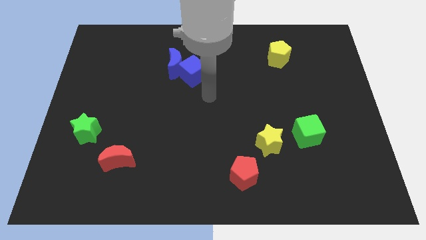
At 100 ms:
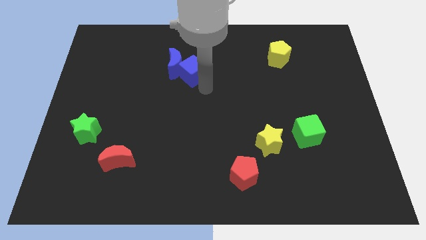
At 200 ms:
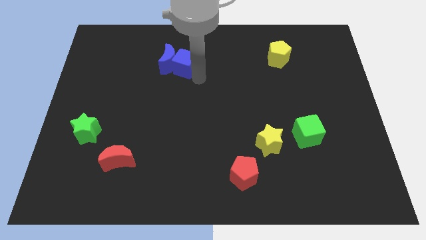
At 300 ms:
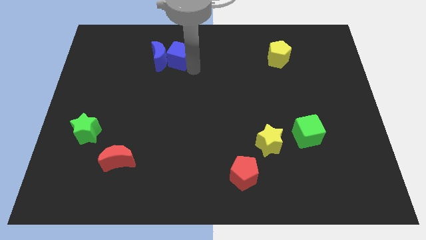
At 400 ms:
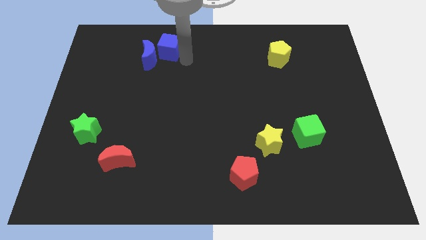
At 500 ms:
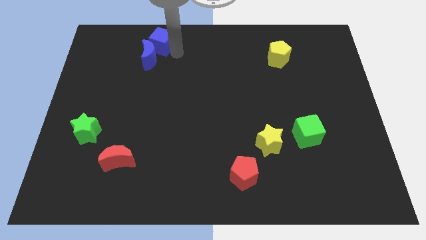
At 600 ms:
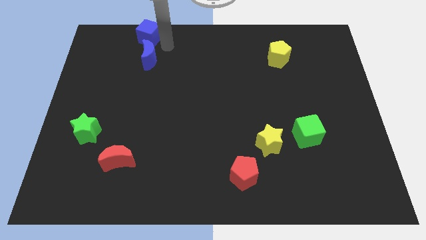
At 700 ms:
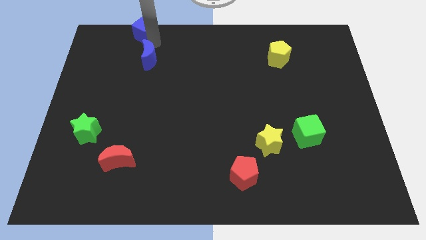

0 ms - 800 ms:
pull the blue moon apart from the blue cube

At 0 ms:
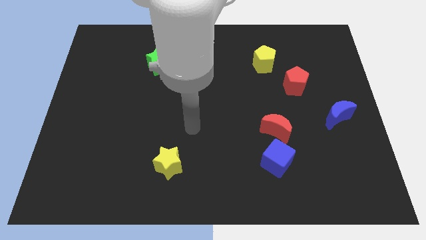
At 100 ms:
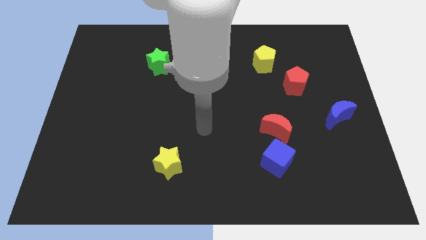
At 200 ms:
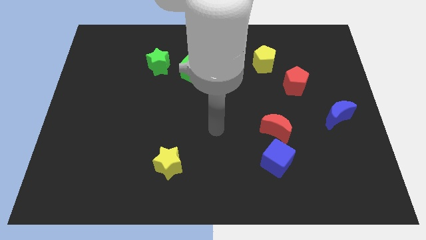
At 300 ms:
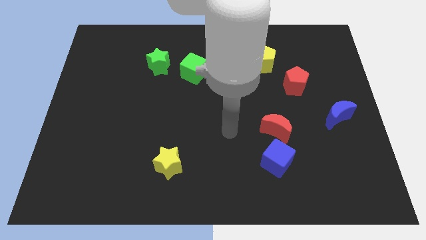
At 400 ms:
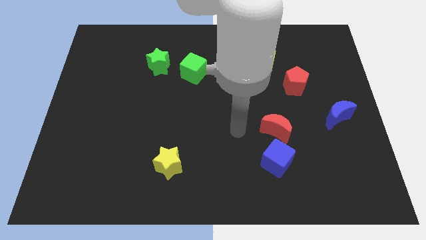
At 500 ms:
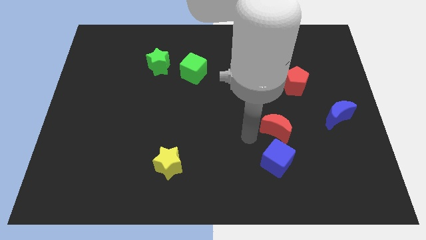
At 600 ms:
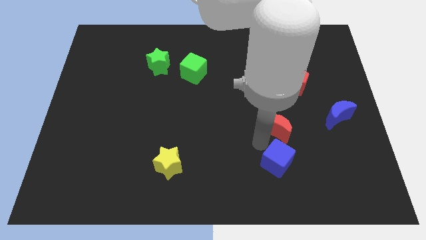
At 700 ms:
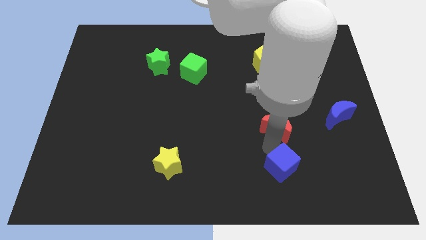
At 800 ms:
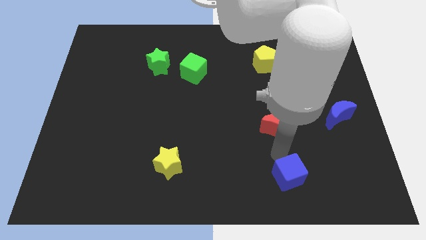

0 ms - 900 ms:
move the red moon away from the blue cube

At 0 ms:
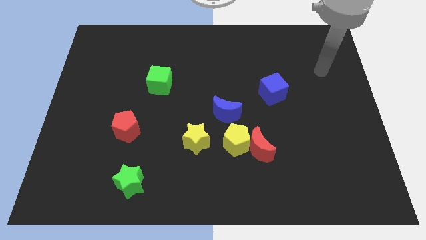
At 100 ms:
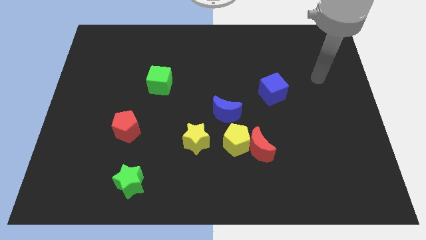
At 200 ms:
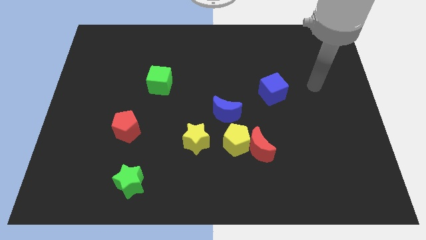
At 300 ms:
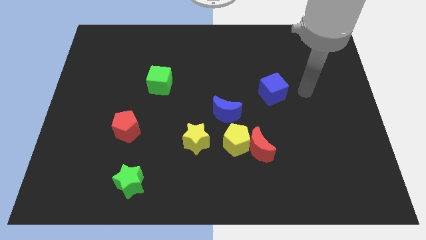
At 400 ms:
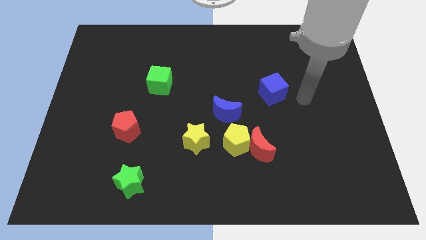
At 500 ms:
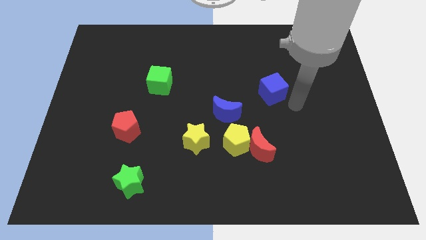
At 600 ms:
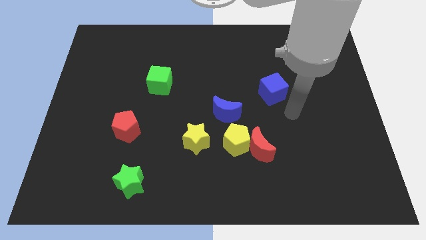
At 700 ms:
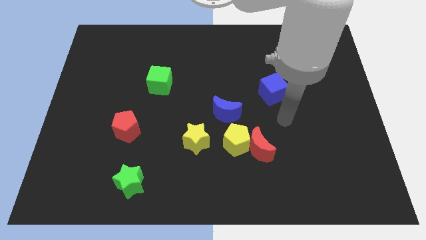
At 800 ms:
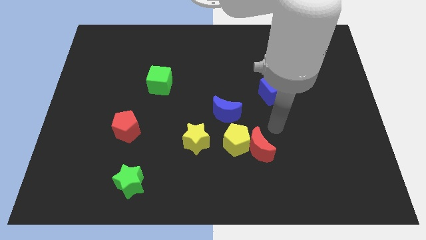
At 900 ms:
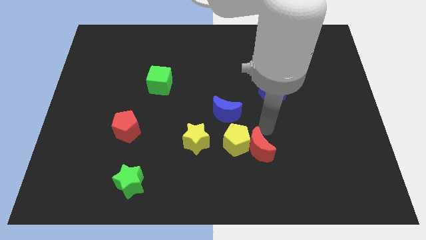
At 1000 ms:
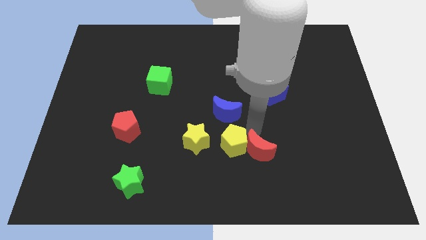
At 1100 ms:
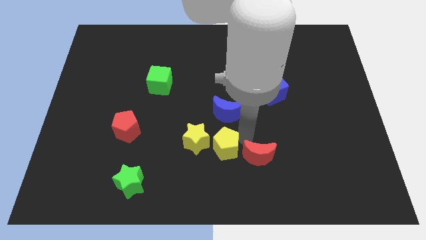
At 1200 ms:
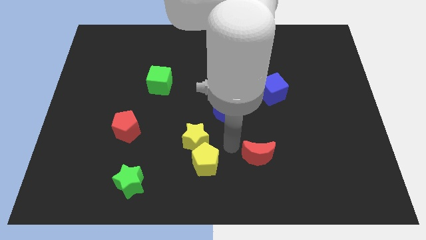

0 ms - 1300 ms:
pull the red moon apart from the yellow pentagon

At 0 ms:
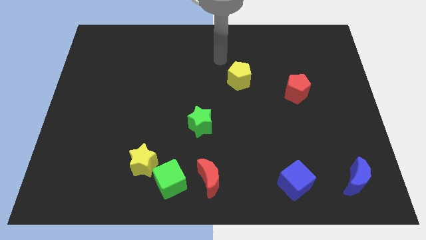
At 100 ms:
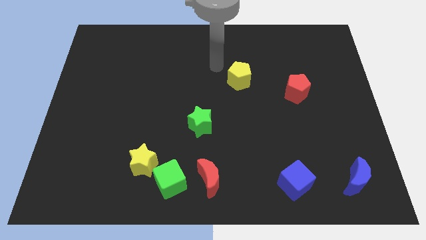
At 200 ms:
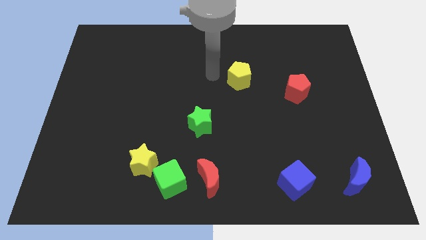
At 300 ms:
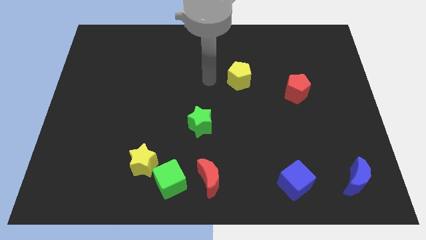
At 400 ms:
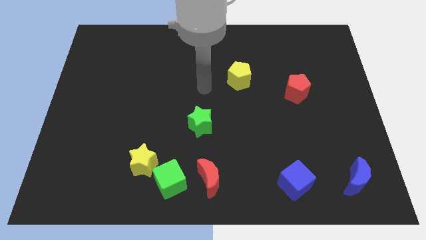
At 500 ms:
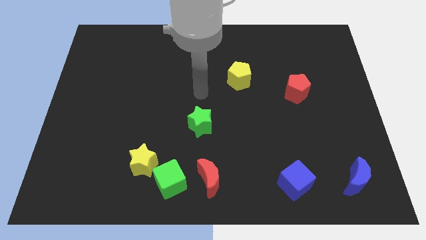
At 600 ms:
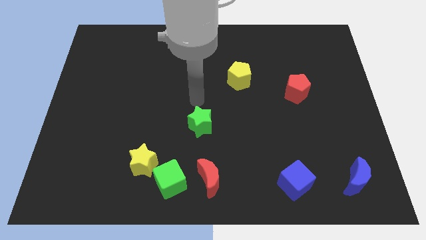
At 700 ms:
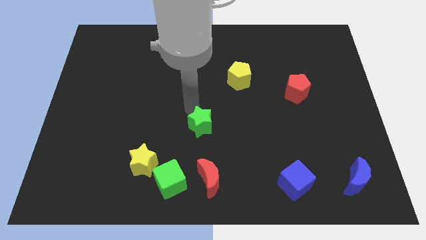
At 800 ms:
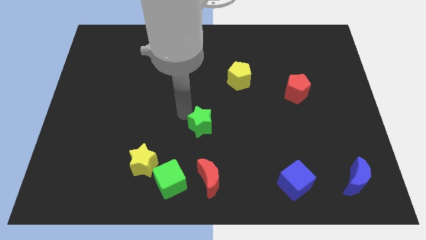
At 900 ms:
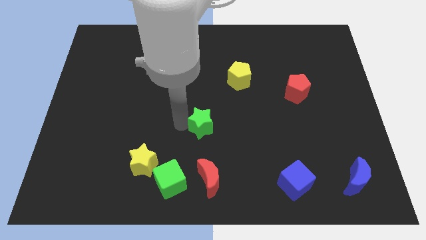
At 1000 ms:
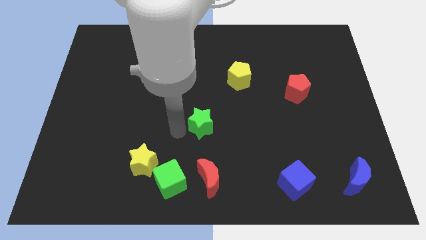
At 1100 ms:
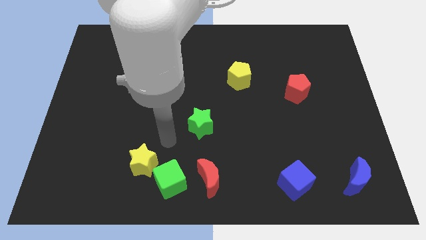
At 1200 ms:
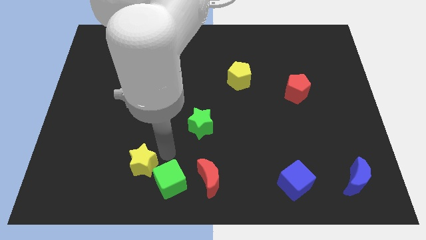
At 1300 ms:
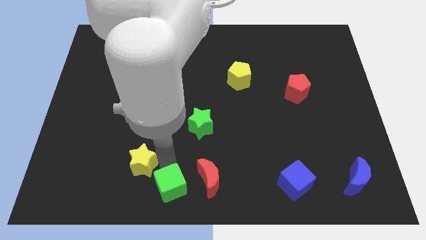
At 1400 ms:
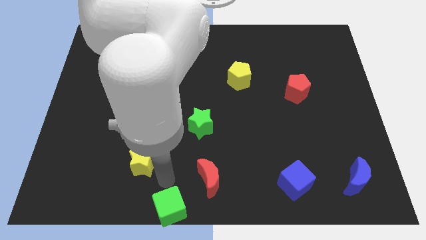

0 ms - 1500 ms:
separate the yellow star from the green cube

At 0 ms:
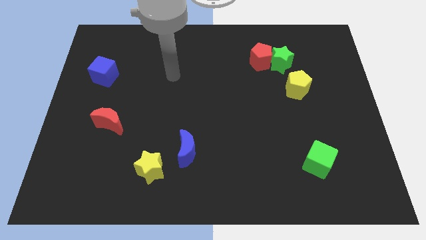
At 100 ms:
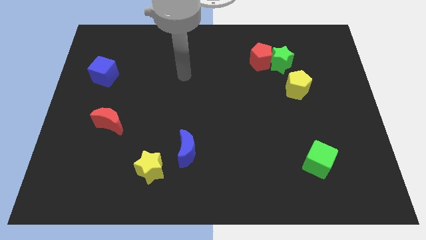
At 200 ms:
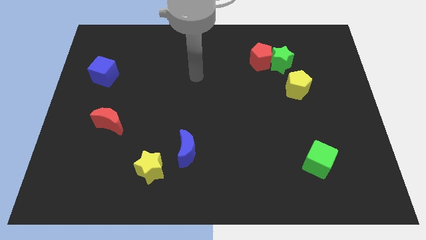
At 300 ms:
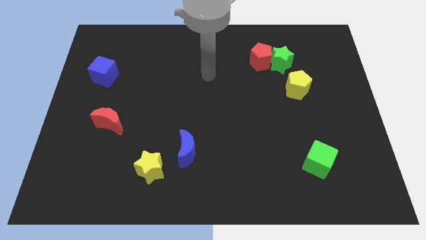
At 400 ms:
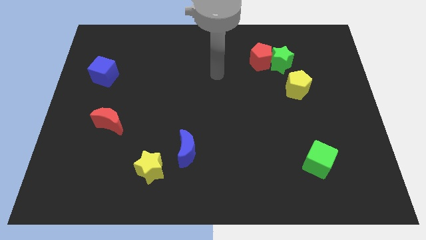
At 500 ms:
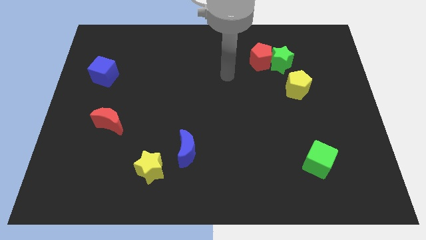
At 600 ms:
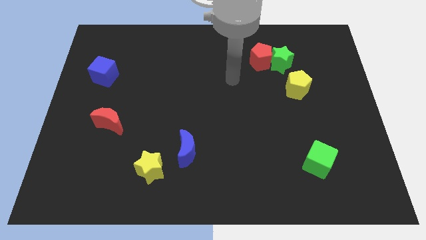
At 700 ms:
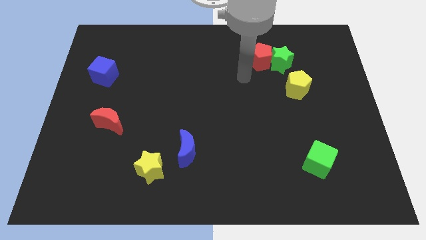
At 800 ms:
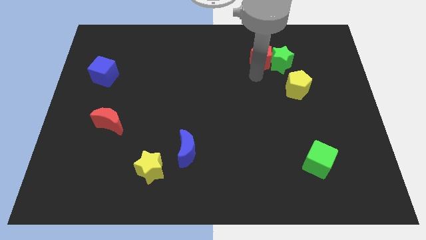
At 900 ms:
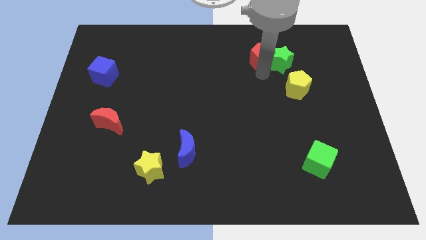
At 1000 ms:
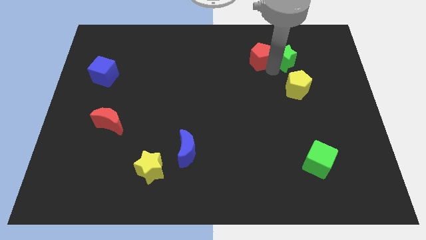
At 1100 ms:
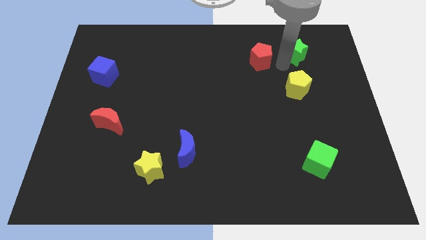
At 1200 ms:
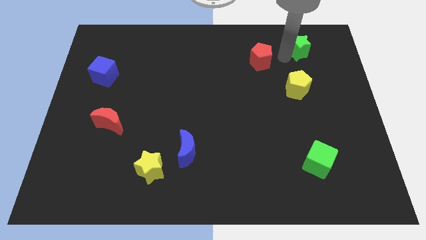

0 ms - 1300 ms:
pull the red pentagon apart from the green star

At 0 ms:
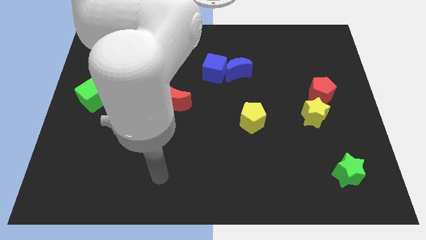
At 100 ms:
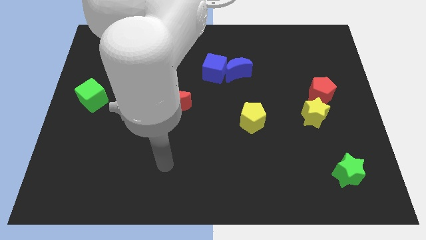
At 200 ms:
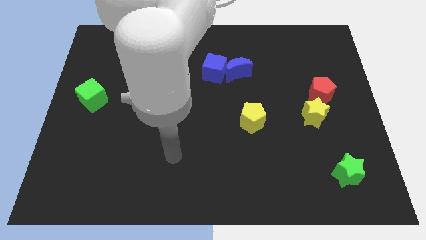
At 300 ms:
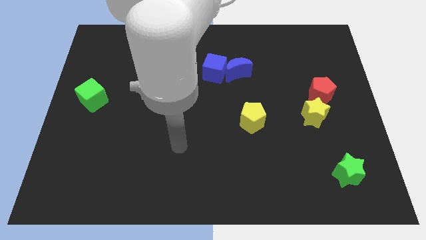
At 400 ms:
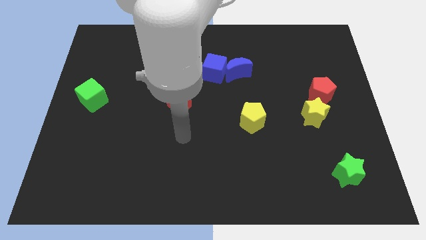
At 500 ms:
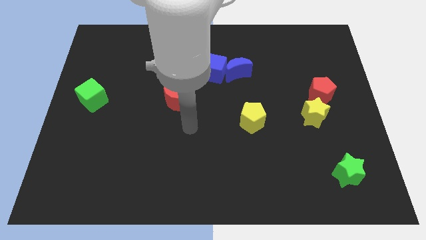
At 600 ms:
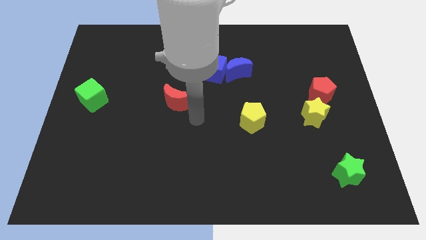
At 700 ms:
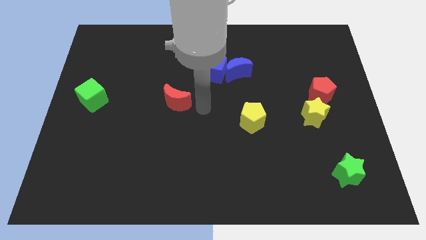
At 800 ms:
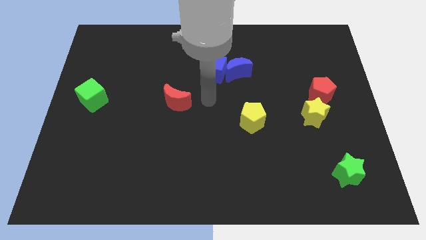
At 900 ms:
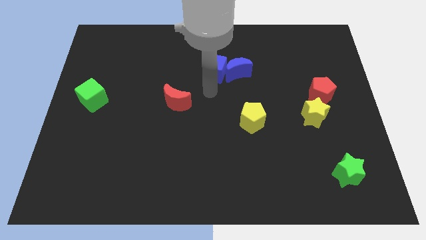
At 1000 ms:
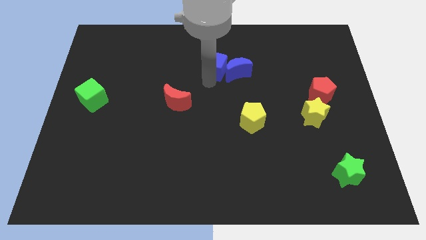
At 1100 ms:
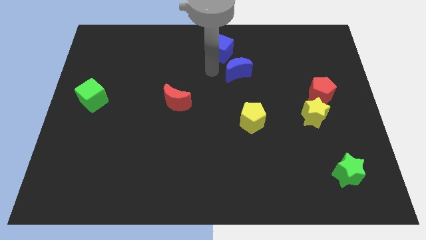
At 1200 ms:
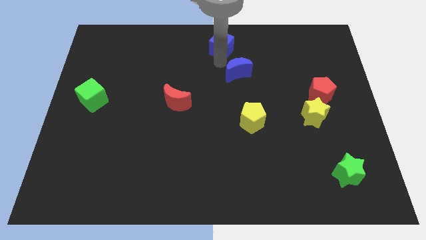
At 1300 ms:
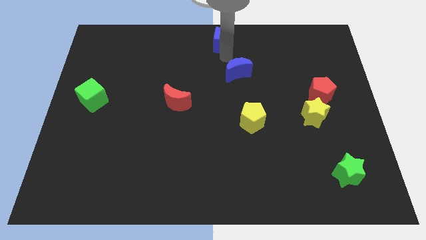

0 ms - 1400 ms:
separate the blue moon from the blue cube

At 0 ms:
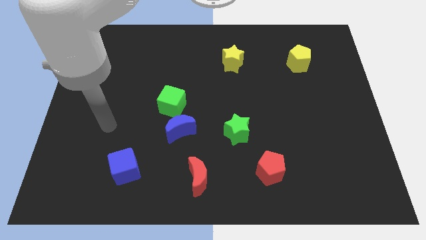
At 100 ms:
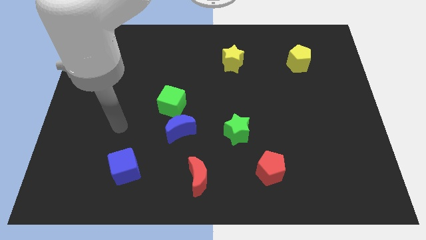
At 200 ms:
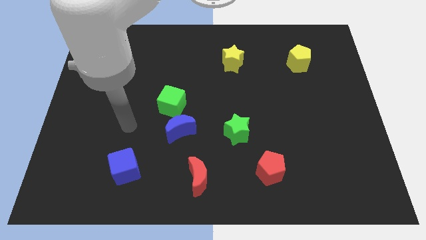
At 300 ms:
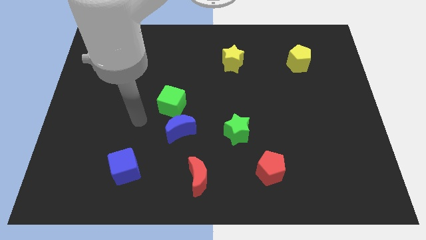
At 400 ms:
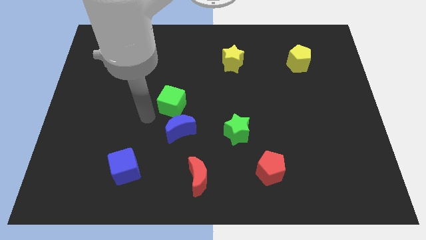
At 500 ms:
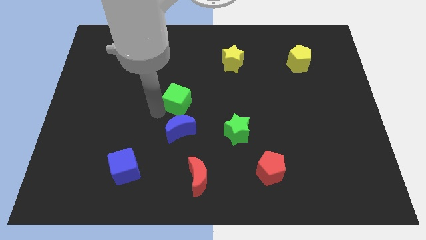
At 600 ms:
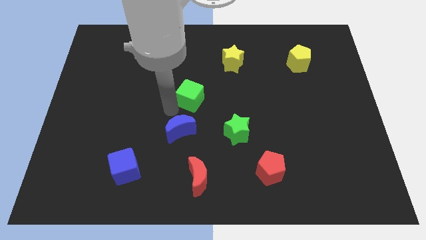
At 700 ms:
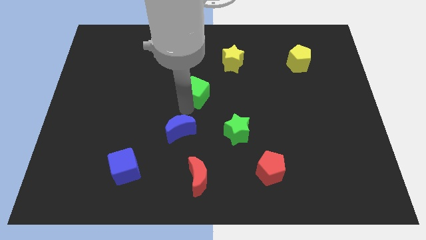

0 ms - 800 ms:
pull the blue moon apart from the green cube

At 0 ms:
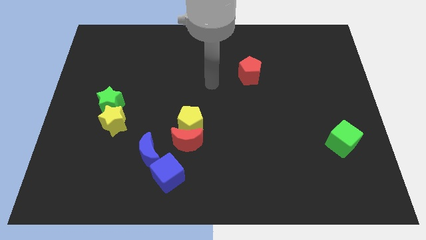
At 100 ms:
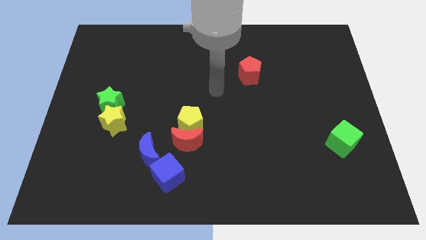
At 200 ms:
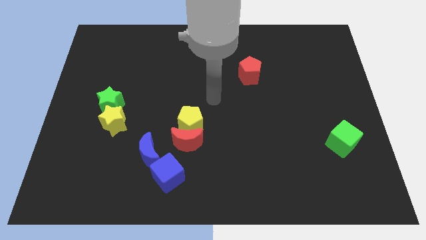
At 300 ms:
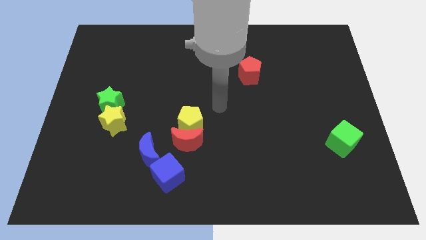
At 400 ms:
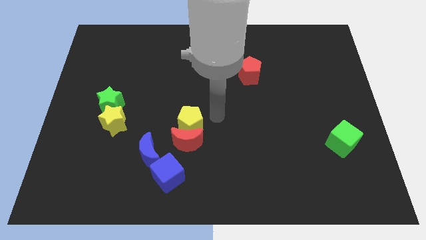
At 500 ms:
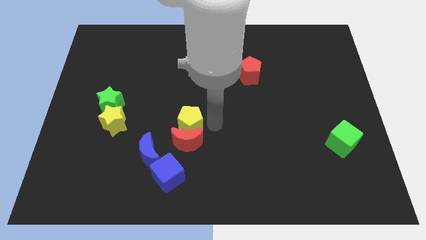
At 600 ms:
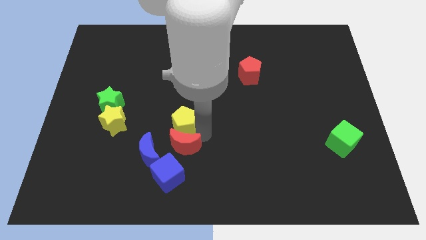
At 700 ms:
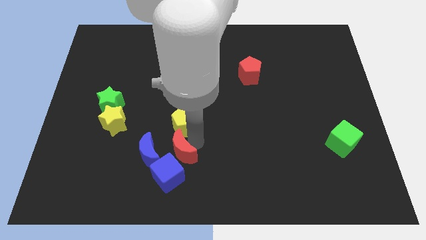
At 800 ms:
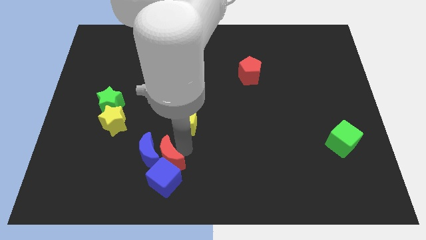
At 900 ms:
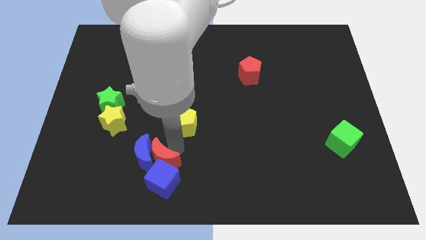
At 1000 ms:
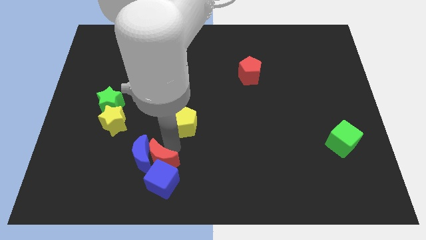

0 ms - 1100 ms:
pull the yellow pentagon apart from the red moon

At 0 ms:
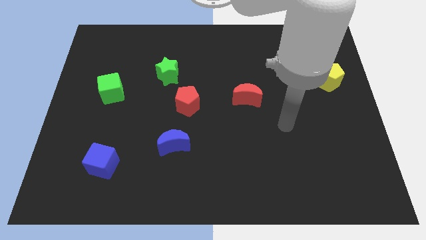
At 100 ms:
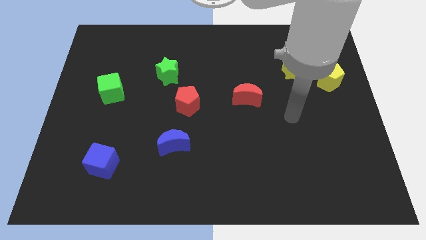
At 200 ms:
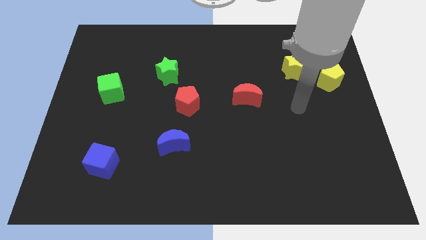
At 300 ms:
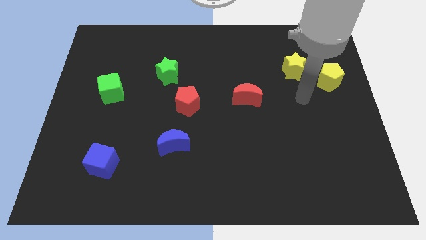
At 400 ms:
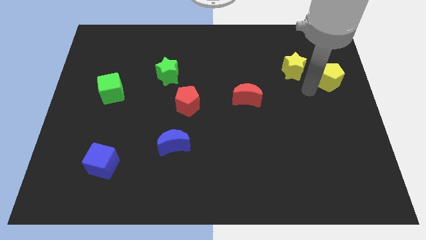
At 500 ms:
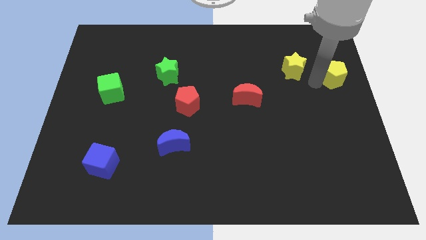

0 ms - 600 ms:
separate the yellow star from the yellow pentagon
